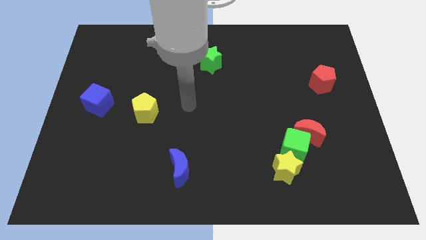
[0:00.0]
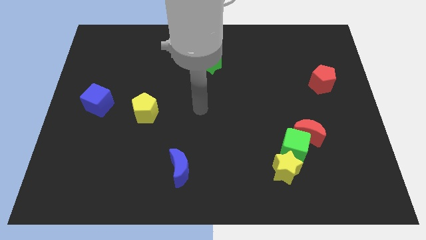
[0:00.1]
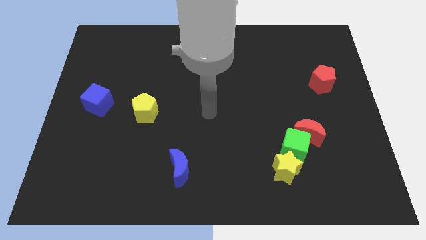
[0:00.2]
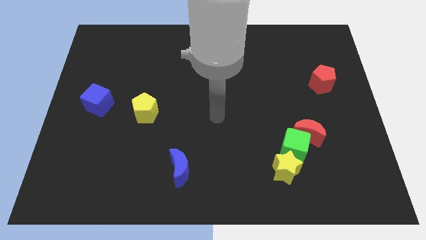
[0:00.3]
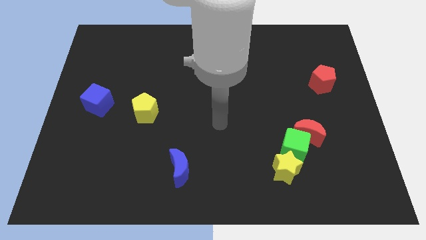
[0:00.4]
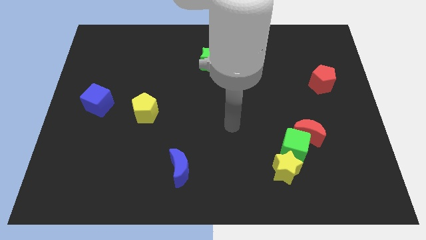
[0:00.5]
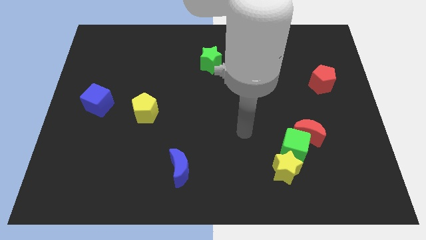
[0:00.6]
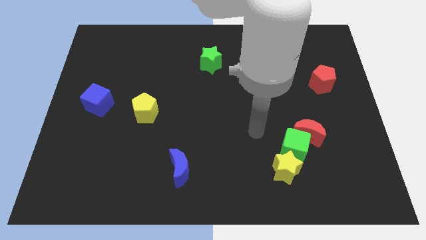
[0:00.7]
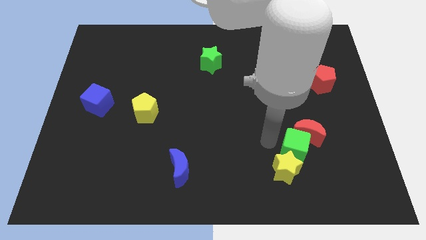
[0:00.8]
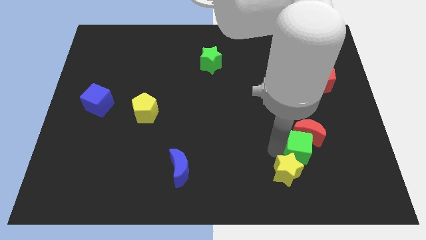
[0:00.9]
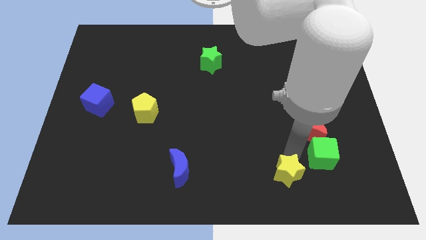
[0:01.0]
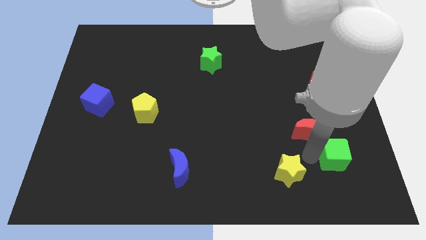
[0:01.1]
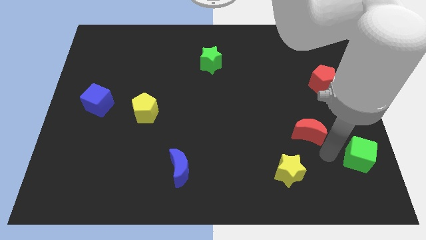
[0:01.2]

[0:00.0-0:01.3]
separate the red moon from the green cube

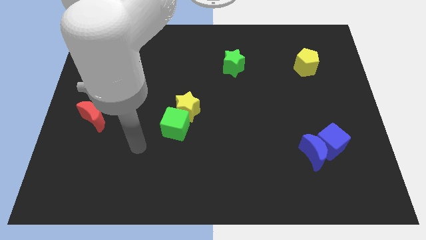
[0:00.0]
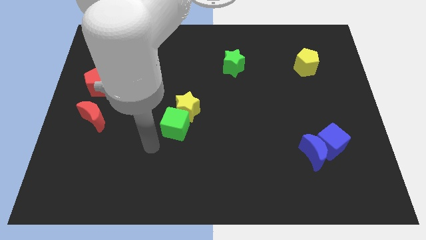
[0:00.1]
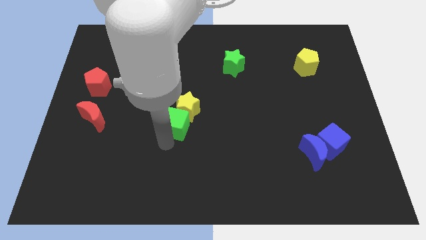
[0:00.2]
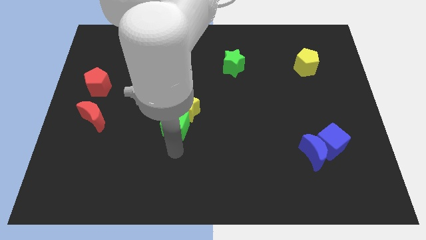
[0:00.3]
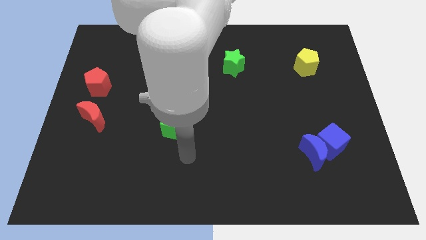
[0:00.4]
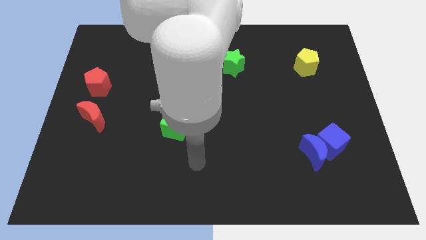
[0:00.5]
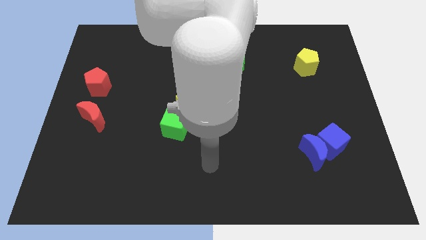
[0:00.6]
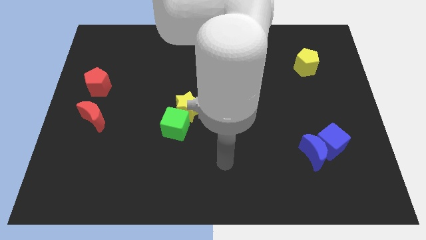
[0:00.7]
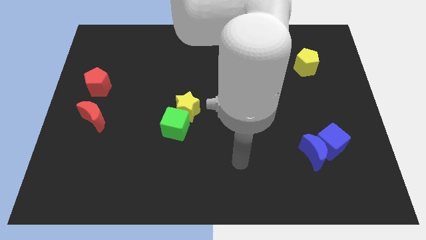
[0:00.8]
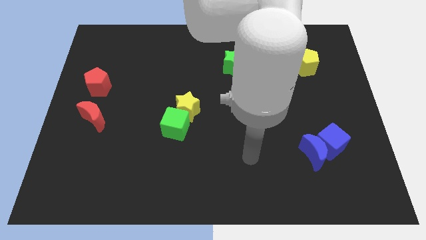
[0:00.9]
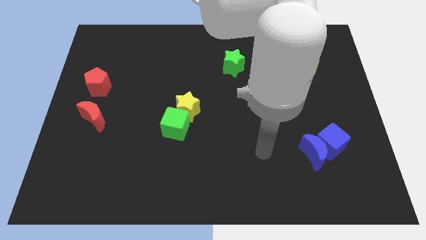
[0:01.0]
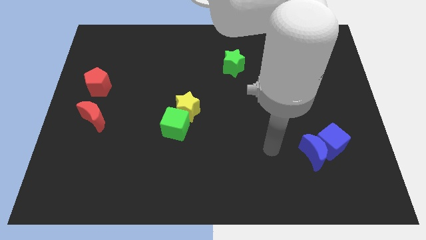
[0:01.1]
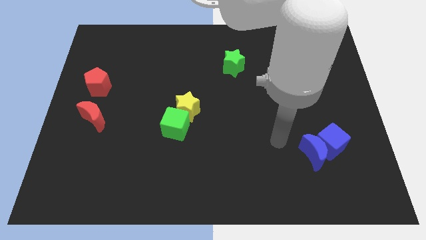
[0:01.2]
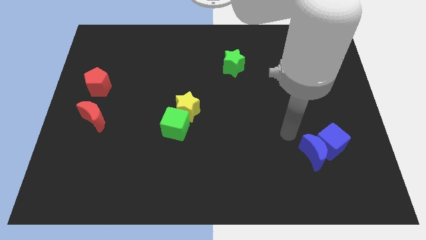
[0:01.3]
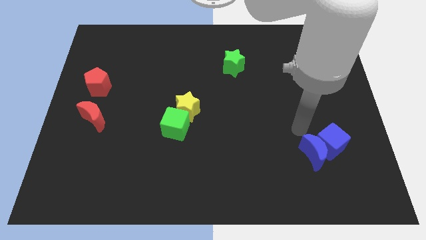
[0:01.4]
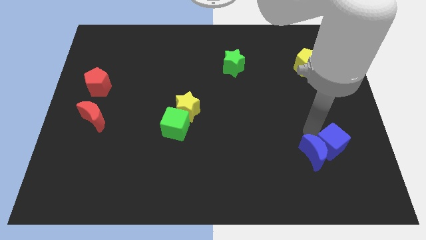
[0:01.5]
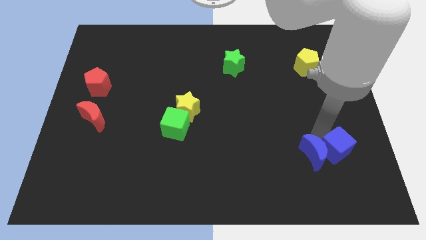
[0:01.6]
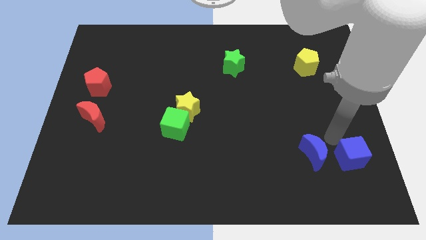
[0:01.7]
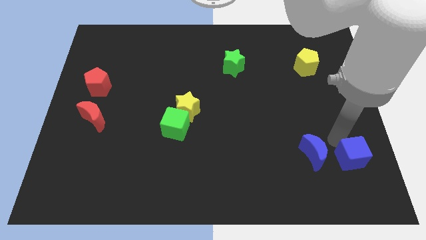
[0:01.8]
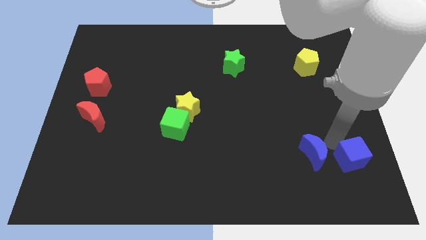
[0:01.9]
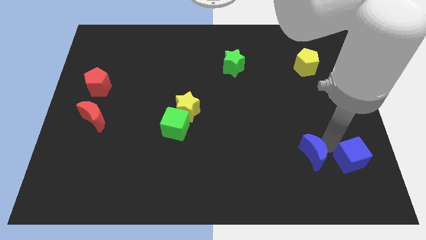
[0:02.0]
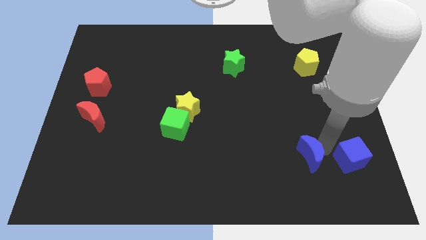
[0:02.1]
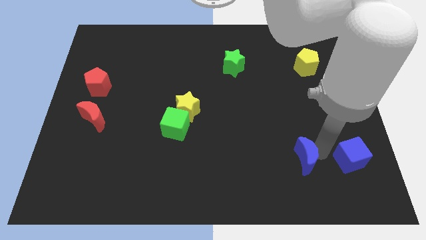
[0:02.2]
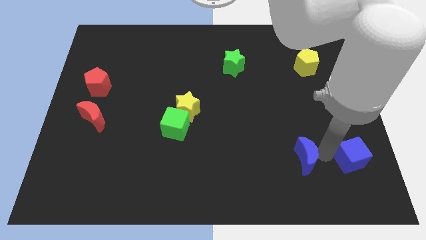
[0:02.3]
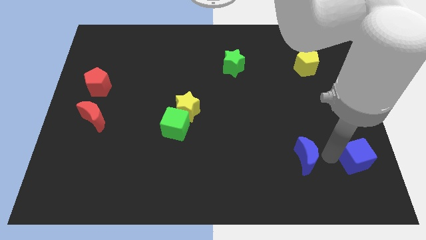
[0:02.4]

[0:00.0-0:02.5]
pull the blue moon apart from the blue cube

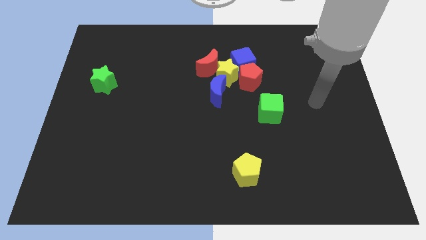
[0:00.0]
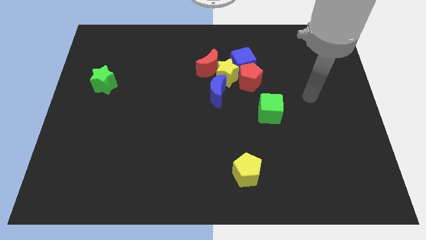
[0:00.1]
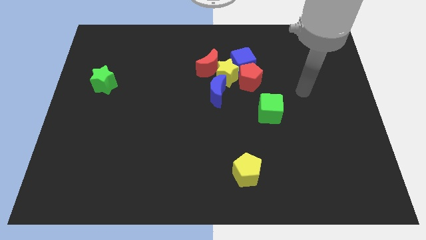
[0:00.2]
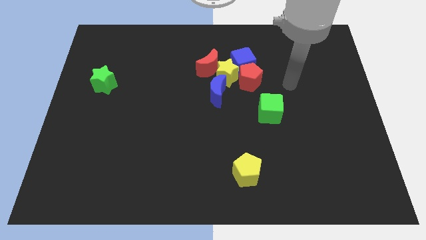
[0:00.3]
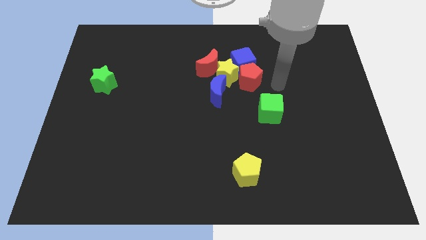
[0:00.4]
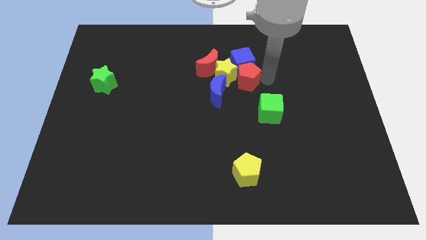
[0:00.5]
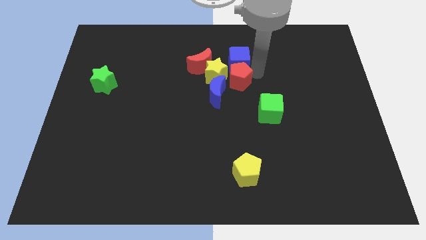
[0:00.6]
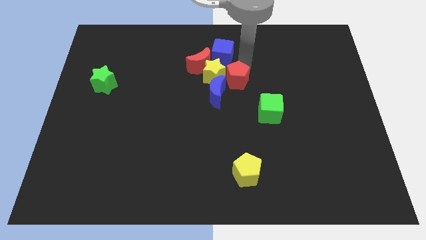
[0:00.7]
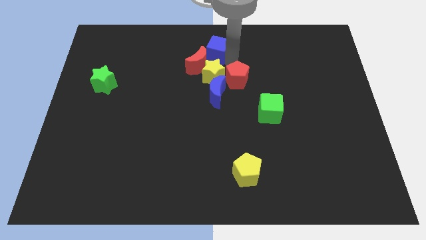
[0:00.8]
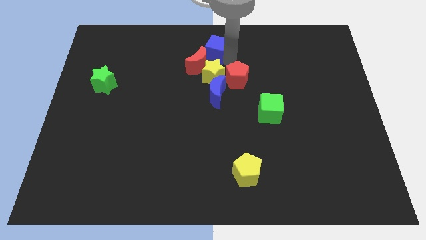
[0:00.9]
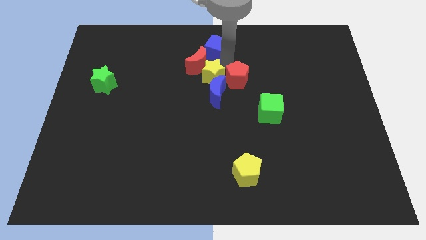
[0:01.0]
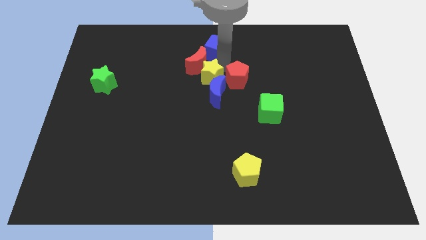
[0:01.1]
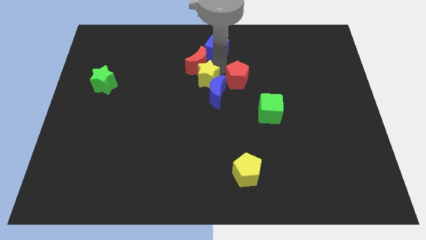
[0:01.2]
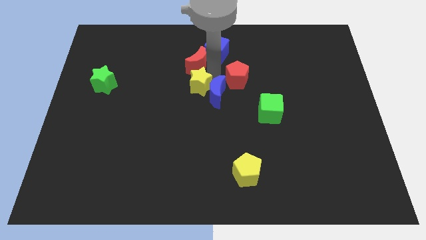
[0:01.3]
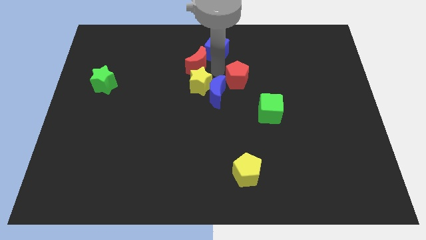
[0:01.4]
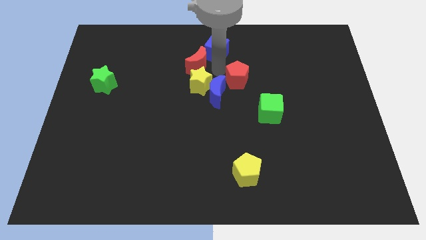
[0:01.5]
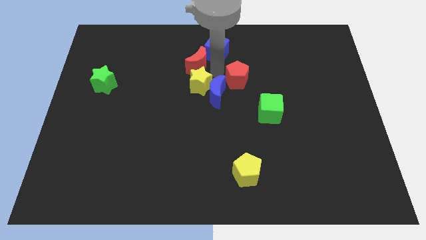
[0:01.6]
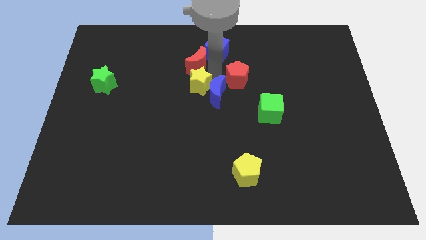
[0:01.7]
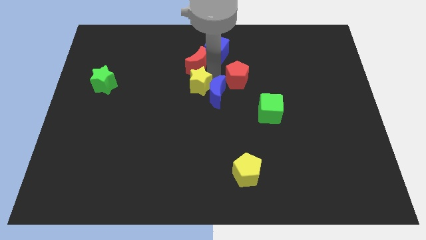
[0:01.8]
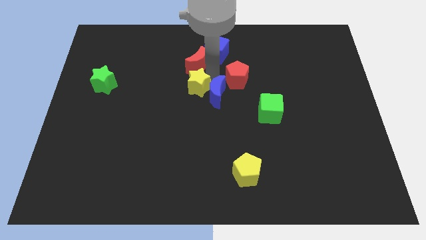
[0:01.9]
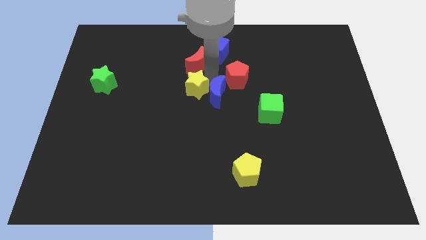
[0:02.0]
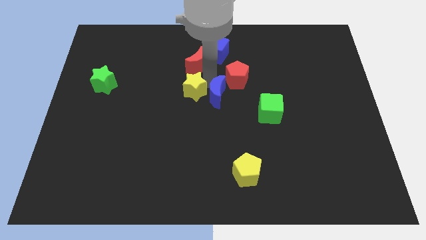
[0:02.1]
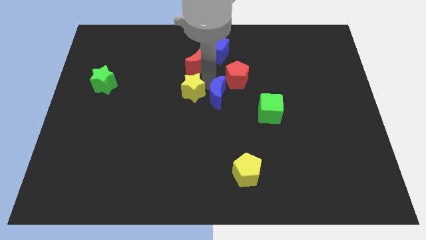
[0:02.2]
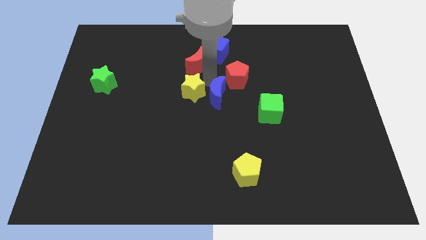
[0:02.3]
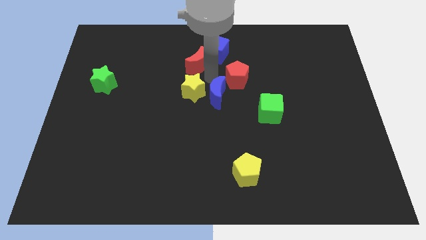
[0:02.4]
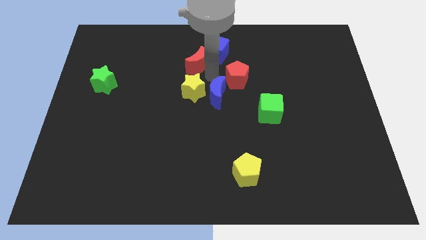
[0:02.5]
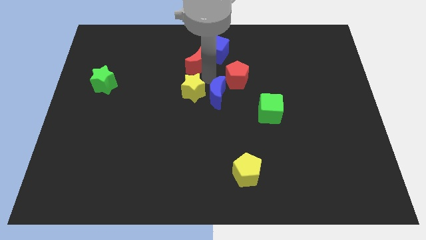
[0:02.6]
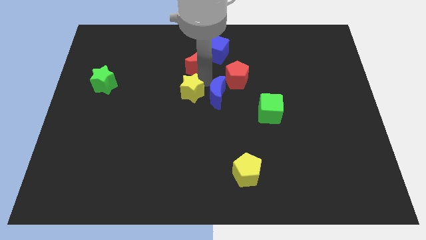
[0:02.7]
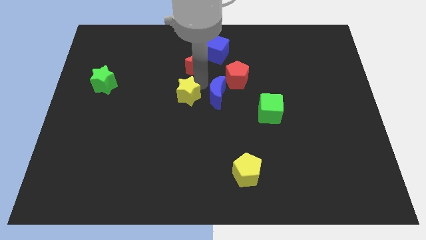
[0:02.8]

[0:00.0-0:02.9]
separate the yellow star from the clump

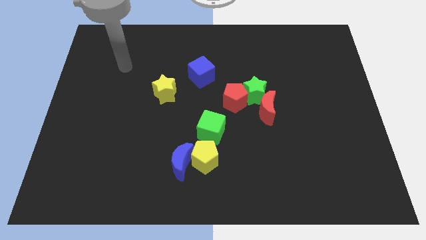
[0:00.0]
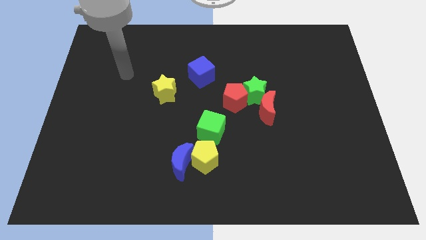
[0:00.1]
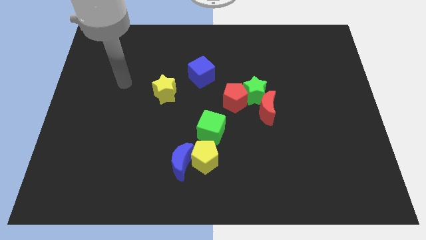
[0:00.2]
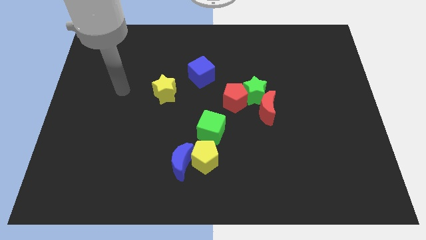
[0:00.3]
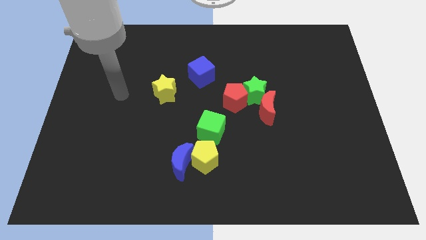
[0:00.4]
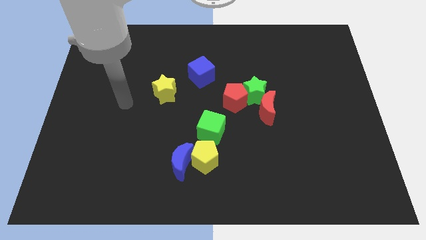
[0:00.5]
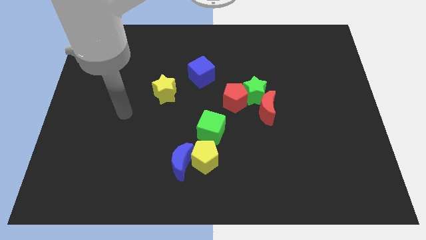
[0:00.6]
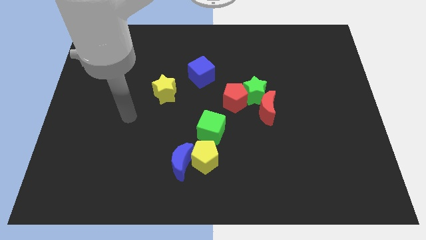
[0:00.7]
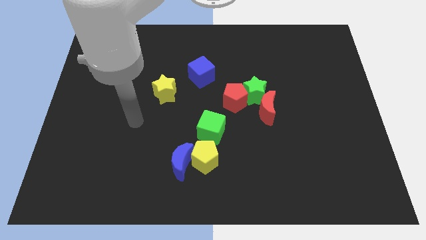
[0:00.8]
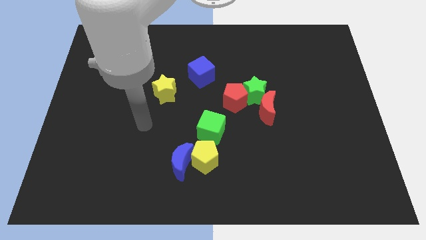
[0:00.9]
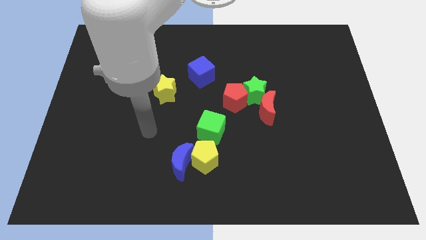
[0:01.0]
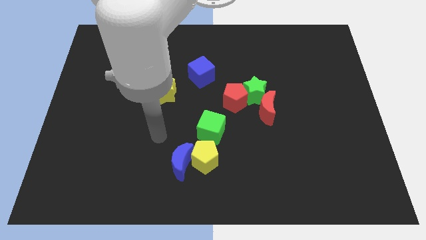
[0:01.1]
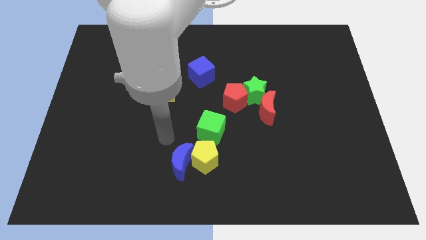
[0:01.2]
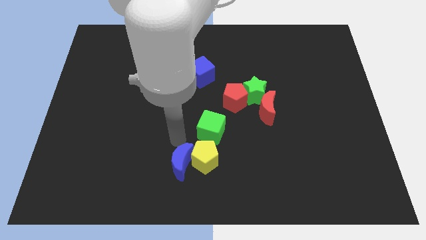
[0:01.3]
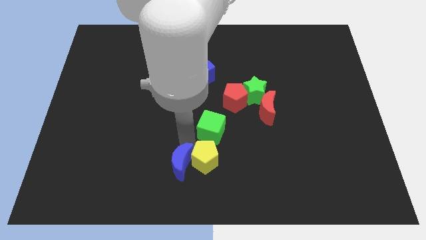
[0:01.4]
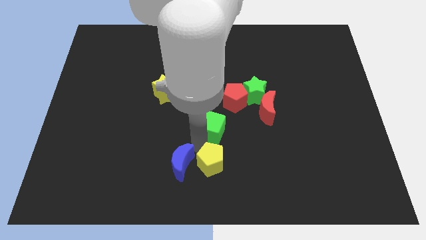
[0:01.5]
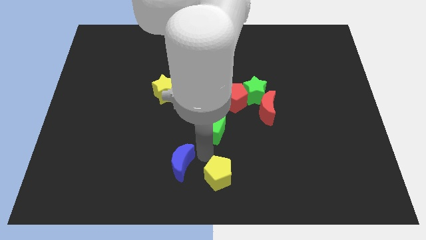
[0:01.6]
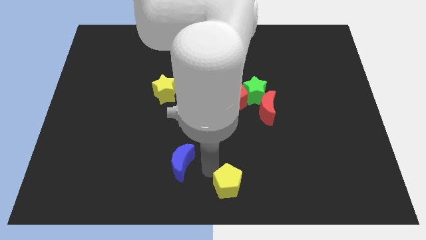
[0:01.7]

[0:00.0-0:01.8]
pull the blue moon apart from the yellow pentagon

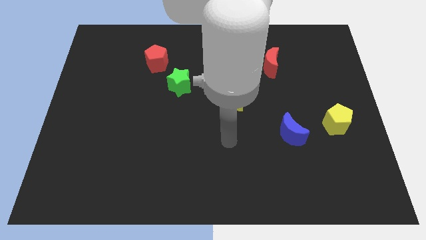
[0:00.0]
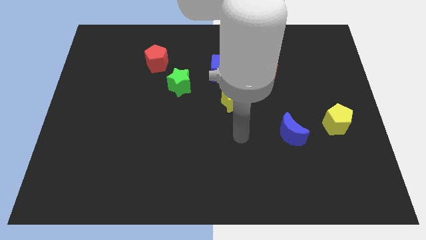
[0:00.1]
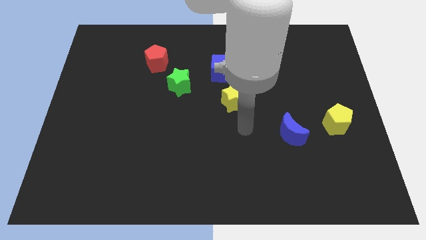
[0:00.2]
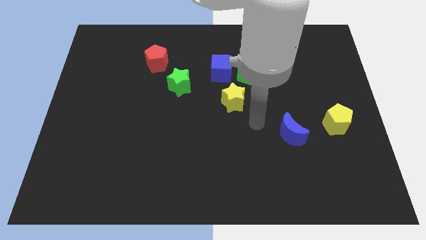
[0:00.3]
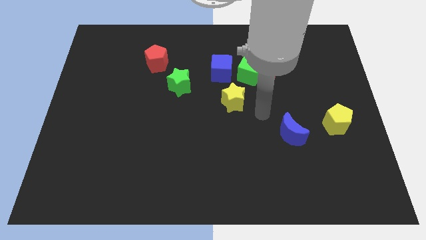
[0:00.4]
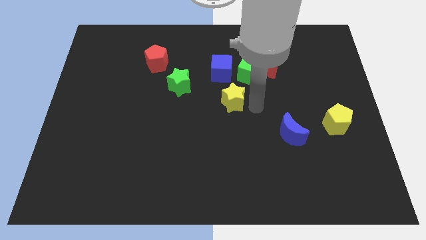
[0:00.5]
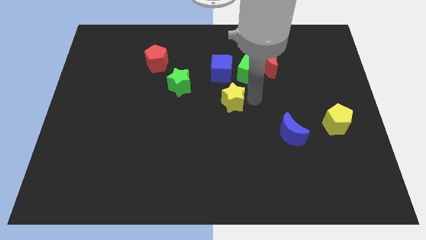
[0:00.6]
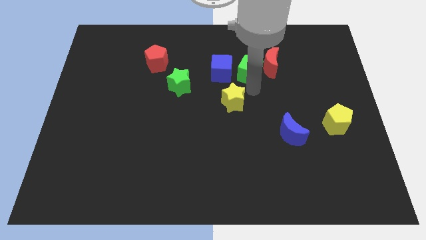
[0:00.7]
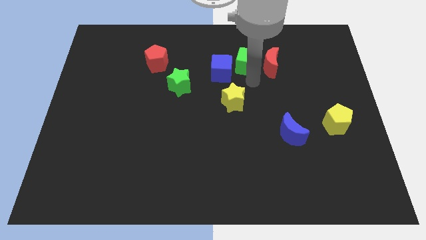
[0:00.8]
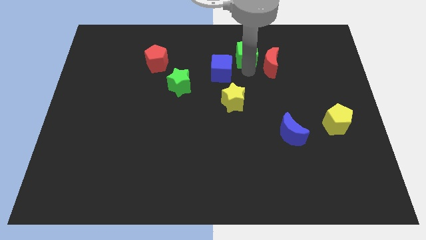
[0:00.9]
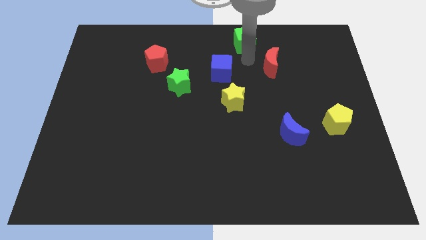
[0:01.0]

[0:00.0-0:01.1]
pull the red moon apart from the green cube
